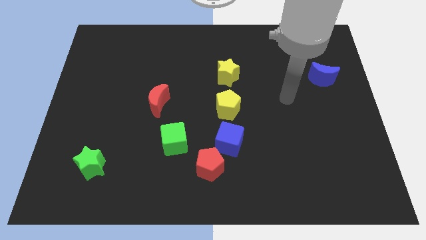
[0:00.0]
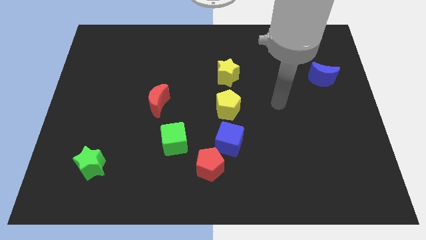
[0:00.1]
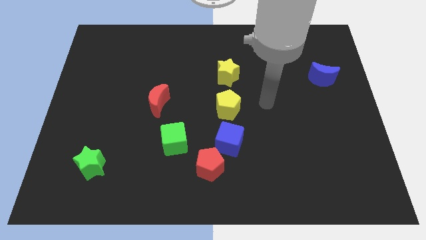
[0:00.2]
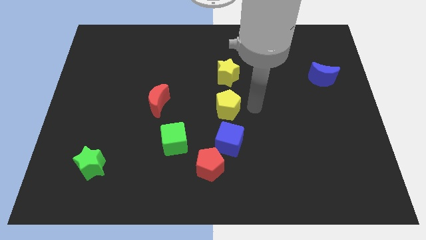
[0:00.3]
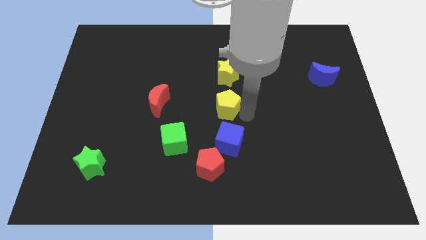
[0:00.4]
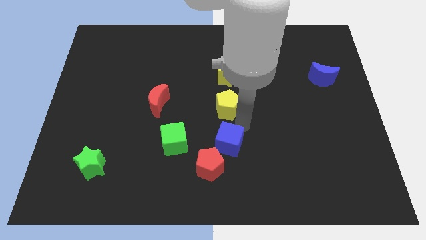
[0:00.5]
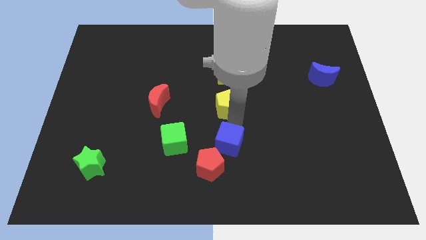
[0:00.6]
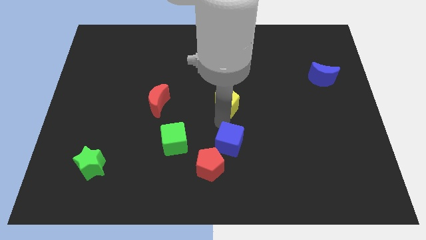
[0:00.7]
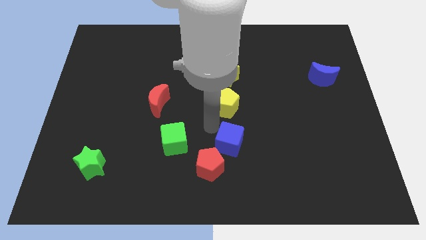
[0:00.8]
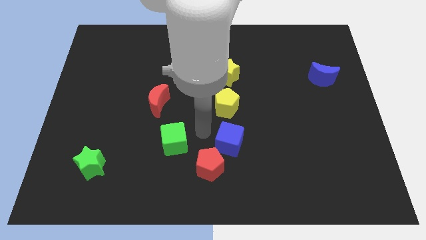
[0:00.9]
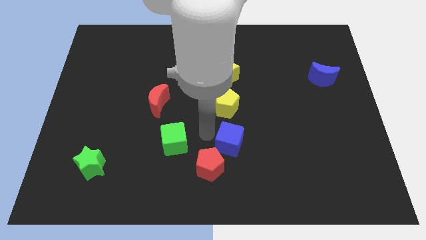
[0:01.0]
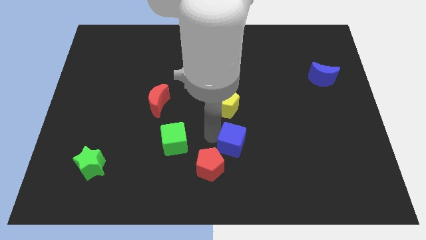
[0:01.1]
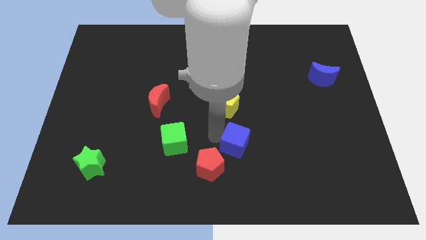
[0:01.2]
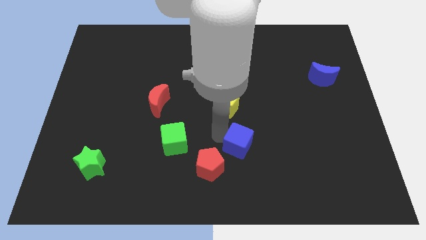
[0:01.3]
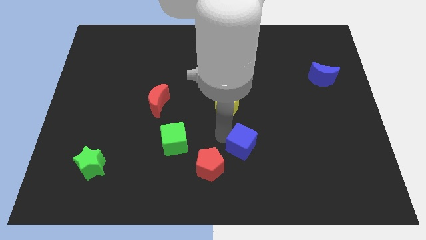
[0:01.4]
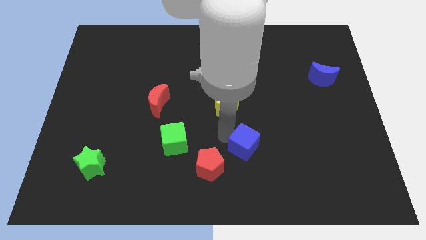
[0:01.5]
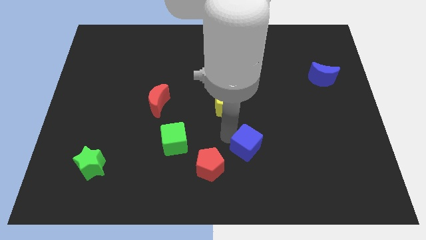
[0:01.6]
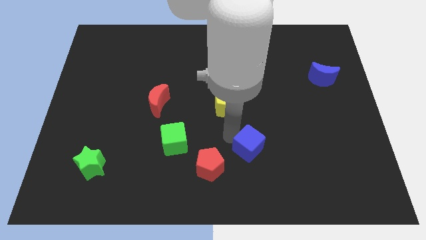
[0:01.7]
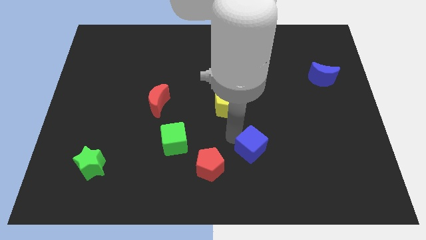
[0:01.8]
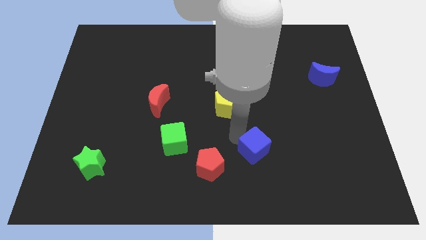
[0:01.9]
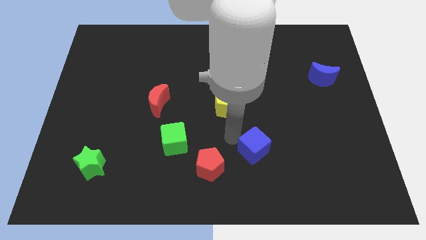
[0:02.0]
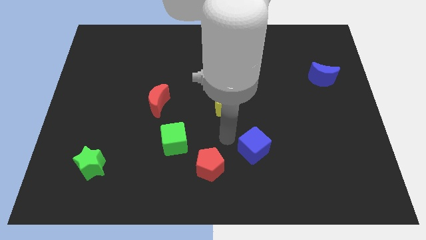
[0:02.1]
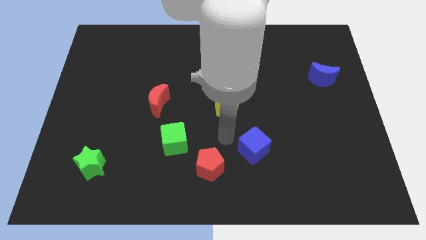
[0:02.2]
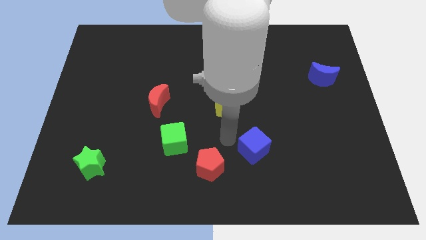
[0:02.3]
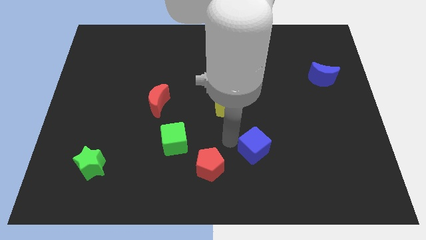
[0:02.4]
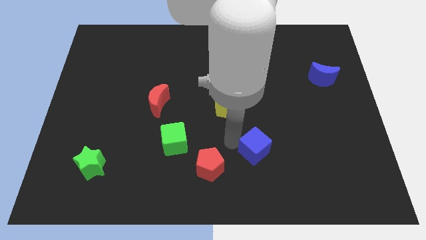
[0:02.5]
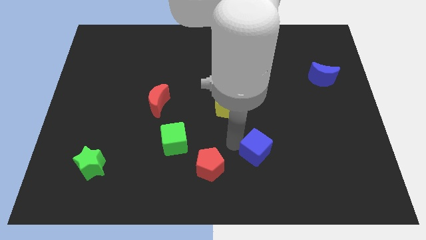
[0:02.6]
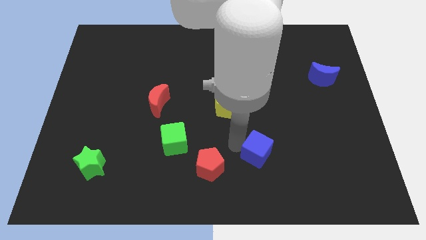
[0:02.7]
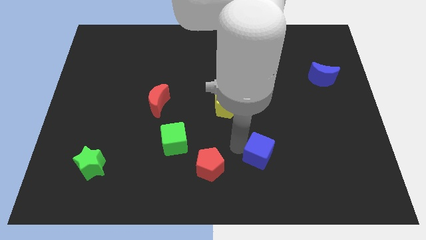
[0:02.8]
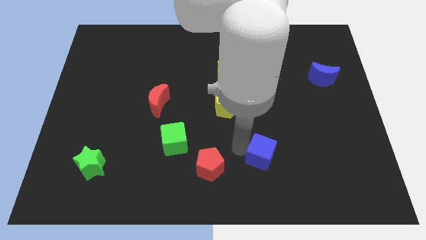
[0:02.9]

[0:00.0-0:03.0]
separate the blue cube from the red pentagon and yellow pentagon

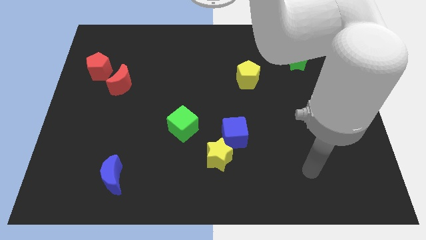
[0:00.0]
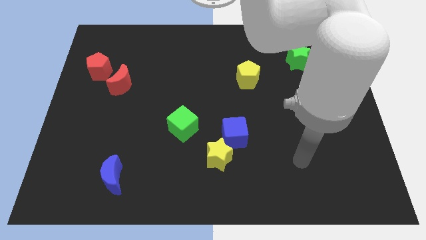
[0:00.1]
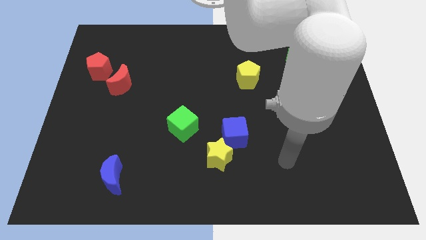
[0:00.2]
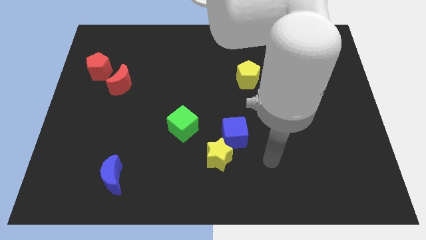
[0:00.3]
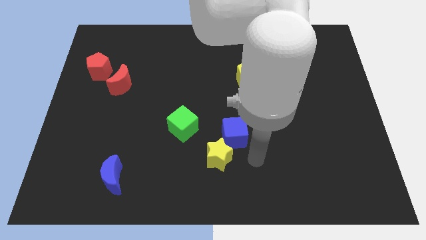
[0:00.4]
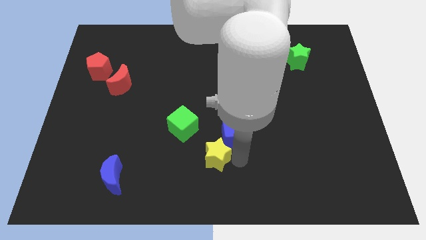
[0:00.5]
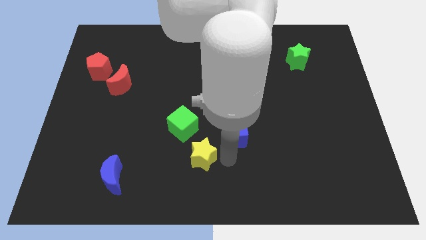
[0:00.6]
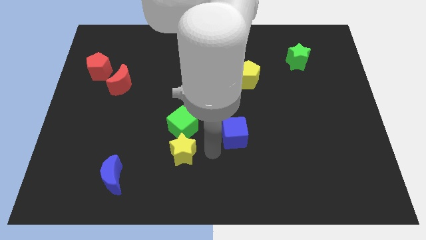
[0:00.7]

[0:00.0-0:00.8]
move the blue cube away from the yellow star

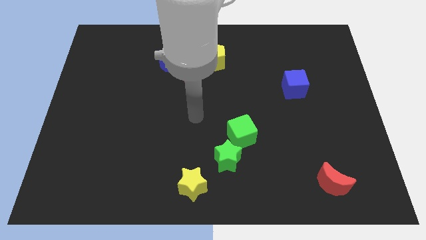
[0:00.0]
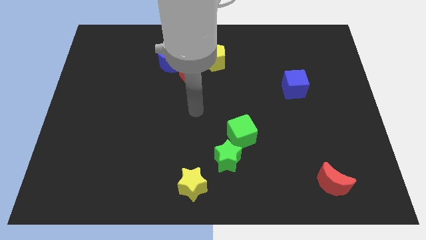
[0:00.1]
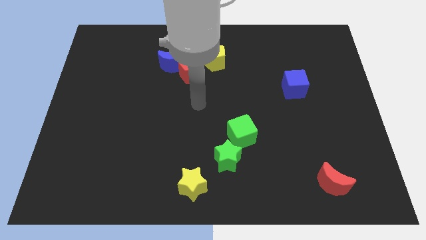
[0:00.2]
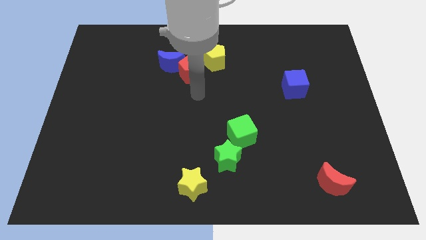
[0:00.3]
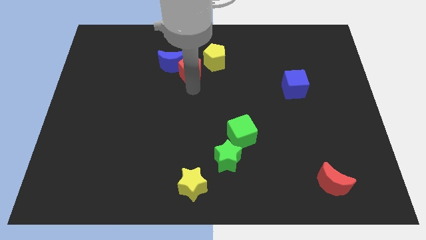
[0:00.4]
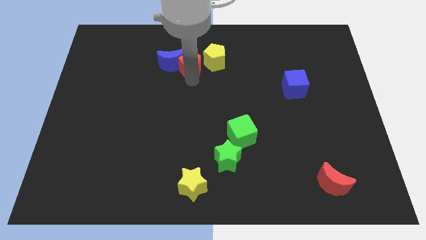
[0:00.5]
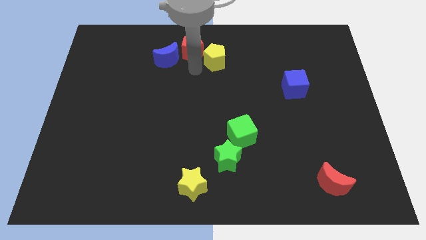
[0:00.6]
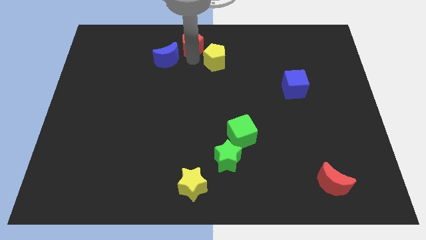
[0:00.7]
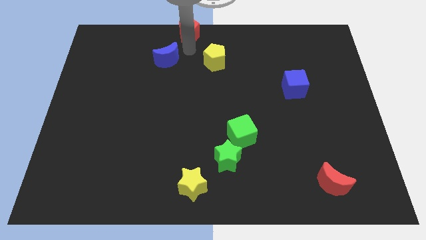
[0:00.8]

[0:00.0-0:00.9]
pull the blue moon apart from the red pentagon

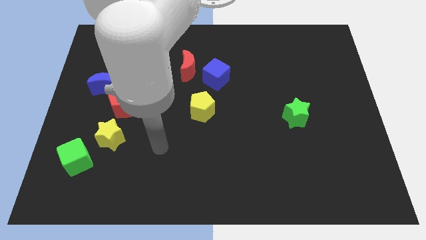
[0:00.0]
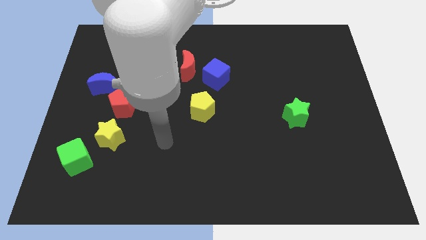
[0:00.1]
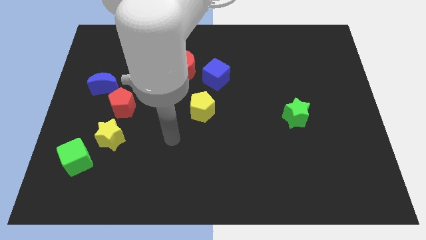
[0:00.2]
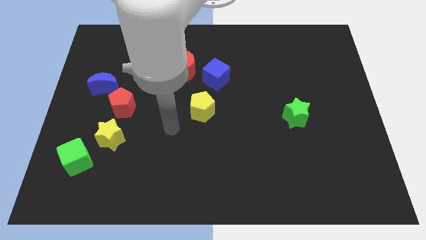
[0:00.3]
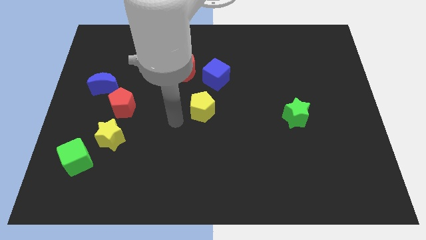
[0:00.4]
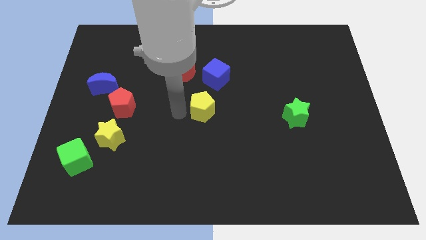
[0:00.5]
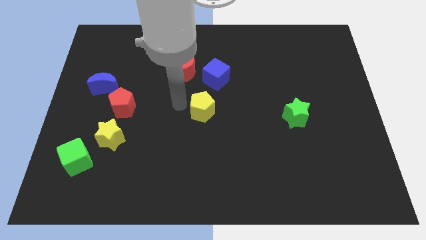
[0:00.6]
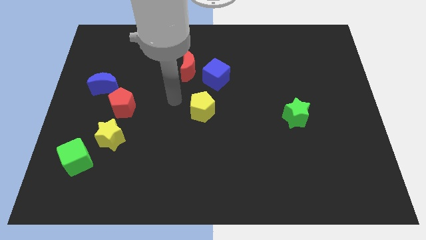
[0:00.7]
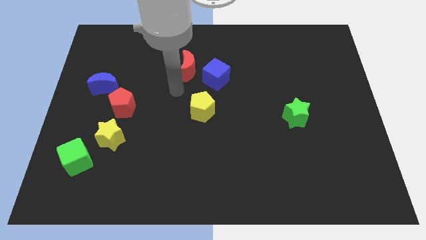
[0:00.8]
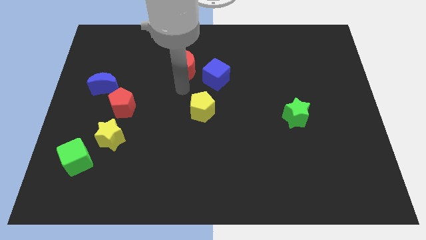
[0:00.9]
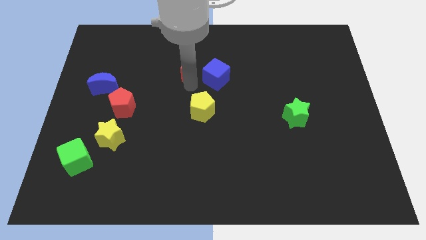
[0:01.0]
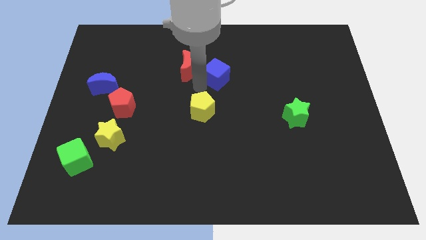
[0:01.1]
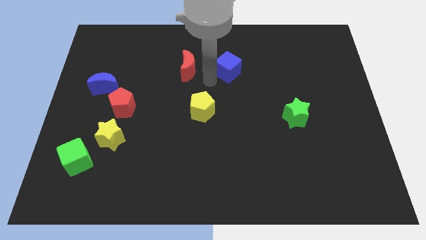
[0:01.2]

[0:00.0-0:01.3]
separate the red moon from the blue cube

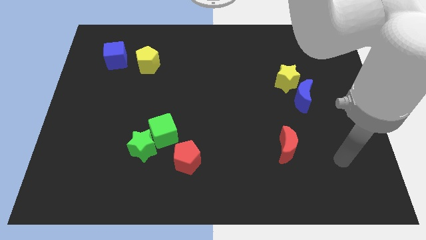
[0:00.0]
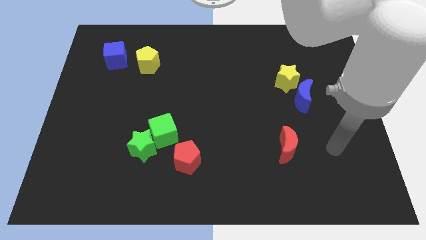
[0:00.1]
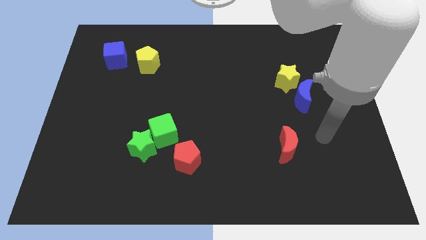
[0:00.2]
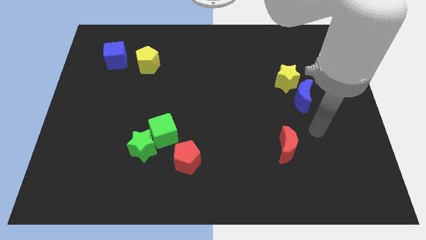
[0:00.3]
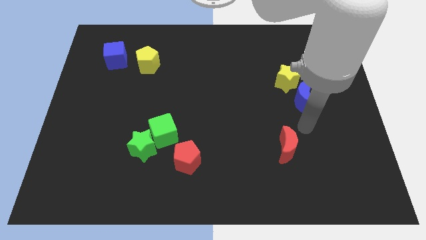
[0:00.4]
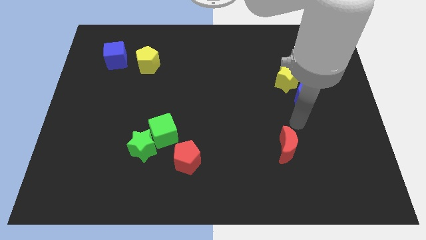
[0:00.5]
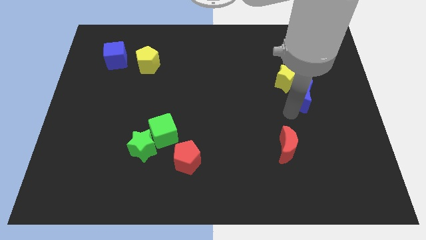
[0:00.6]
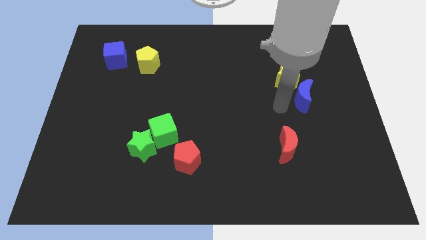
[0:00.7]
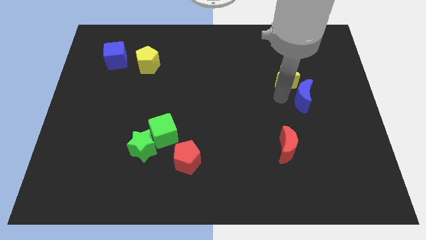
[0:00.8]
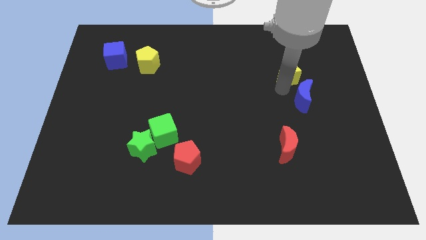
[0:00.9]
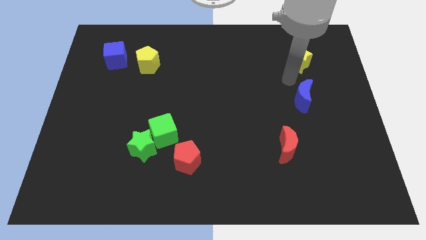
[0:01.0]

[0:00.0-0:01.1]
separate the blue moon from the yellow star

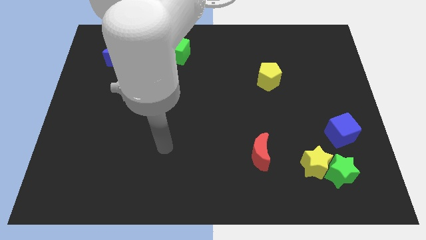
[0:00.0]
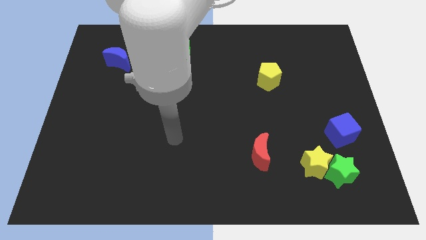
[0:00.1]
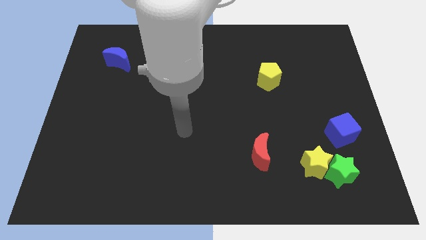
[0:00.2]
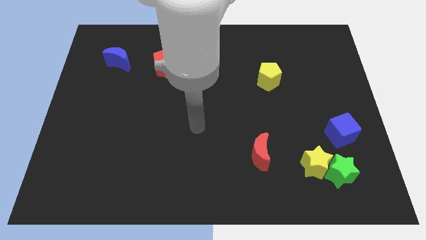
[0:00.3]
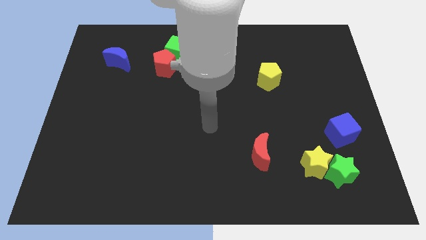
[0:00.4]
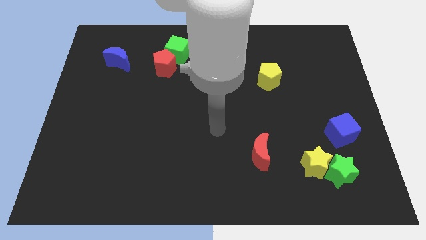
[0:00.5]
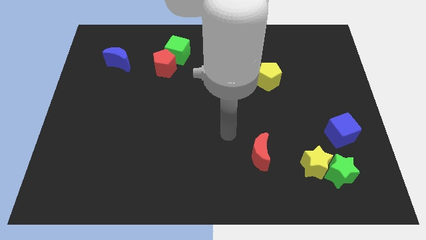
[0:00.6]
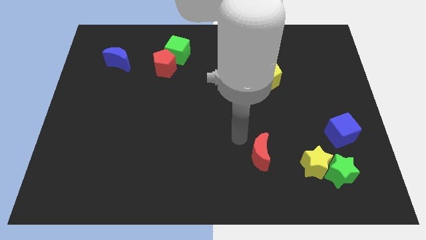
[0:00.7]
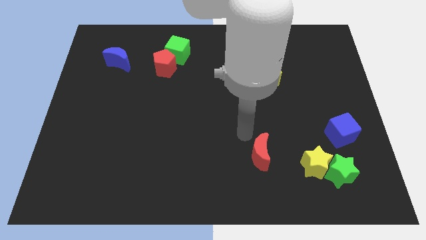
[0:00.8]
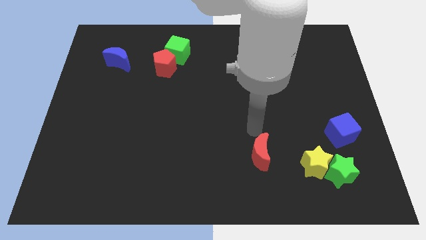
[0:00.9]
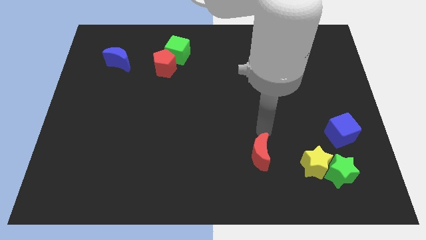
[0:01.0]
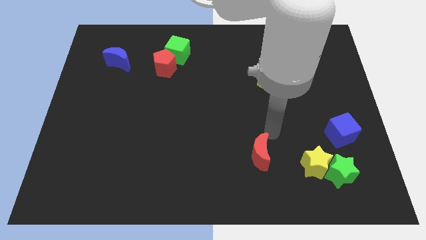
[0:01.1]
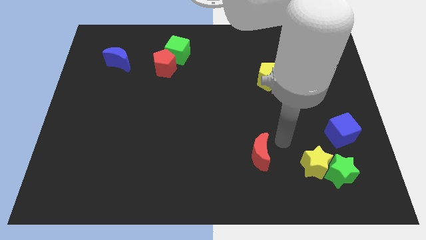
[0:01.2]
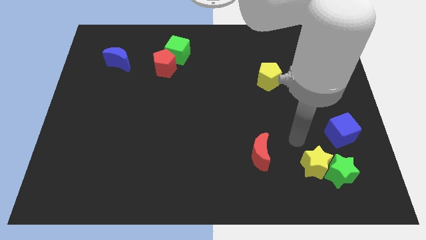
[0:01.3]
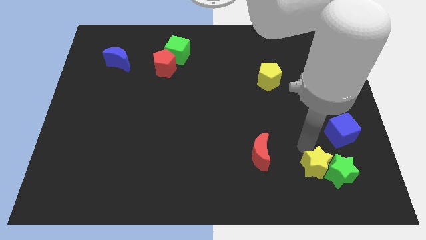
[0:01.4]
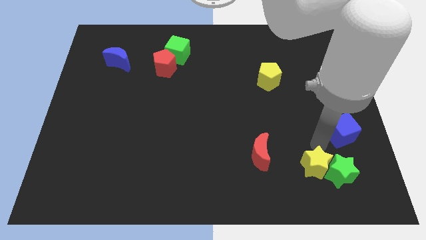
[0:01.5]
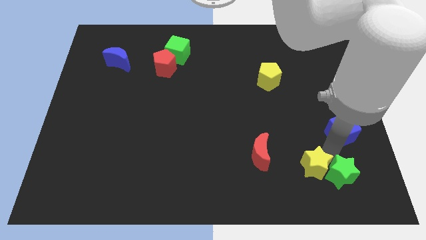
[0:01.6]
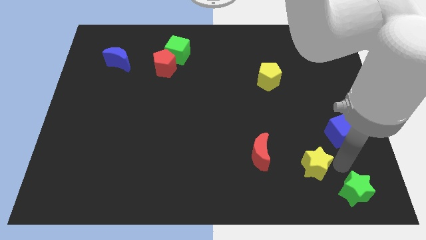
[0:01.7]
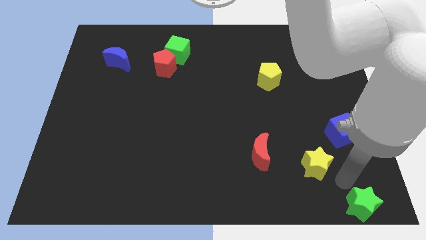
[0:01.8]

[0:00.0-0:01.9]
separate the yellow star from the green star

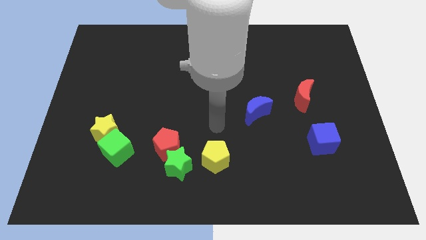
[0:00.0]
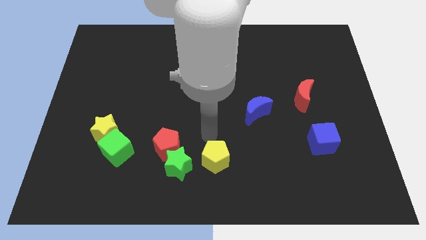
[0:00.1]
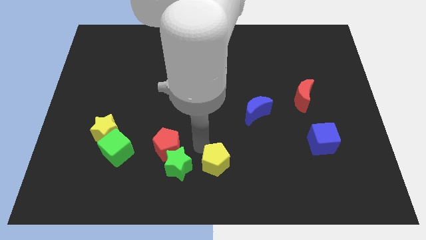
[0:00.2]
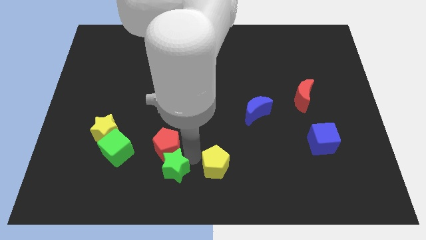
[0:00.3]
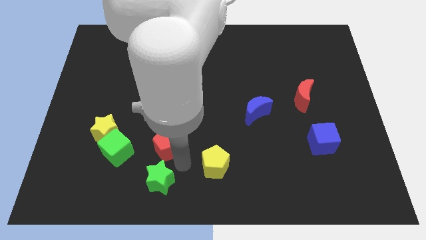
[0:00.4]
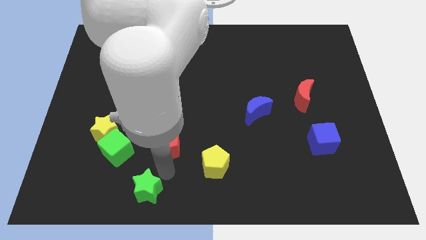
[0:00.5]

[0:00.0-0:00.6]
separate the red pentagon from the green star
